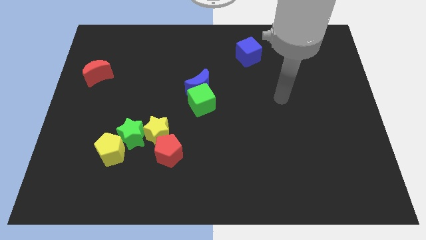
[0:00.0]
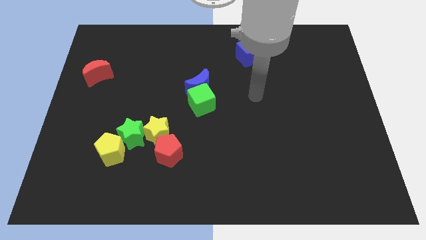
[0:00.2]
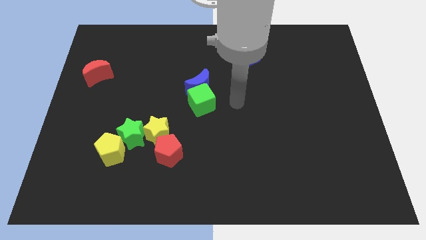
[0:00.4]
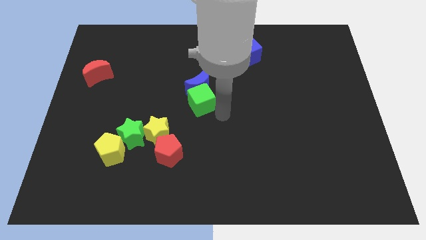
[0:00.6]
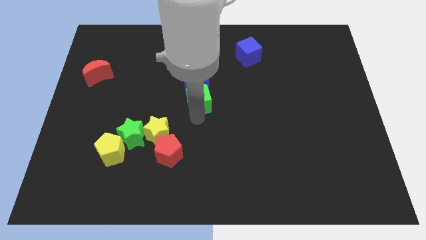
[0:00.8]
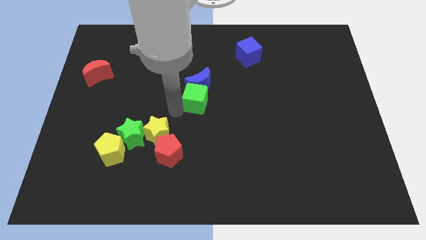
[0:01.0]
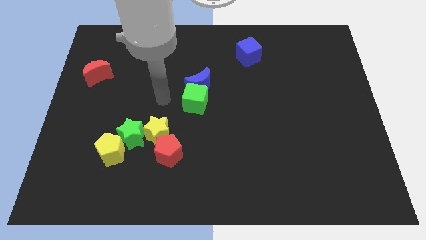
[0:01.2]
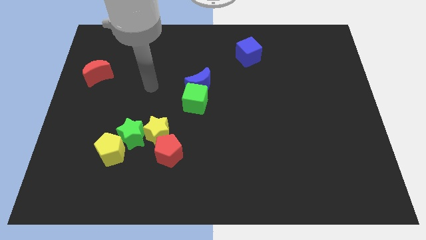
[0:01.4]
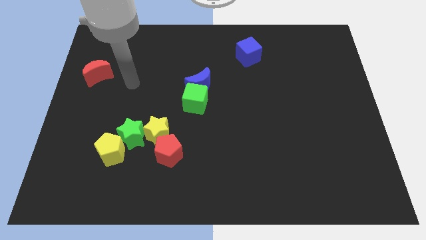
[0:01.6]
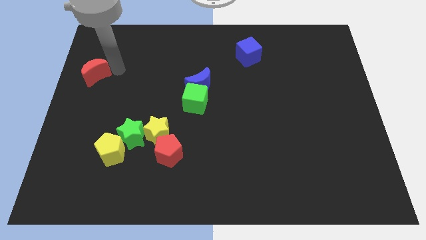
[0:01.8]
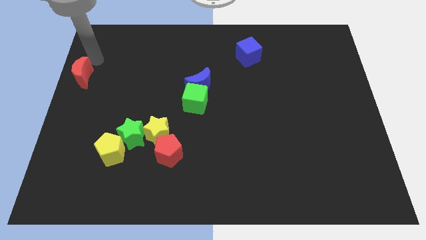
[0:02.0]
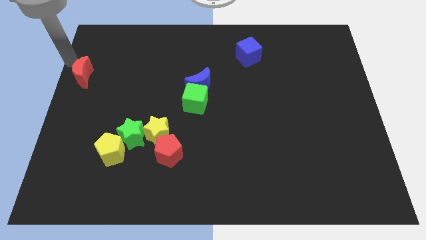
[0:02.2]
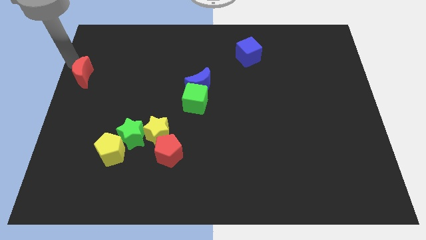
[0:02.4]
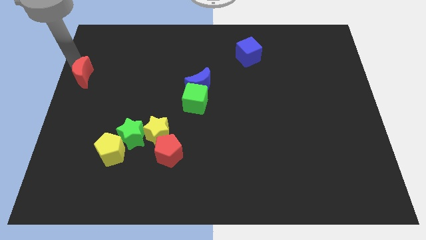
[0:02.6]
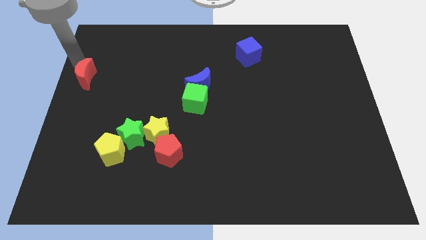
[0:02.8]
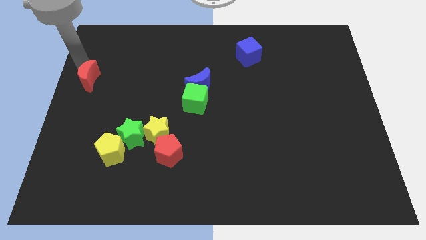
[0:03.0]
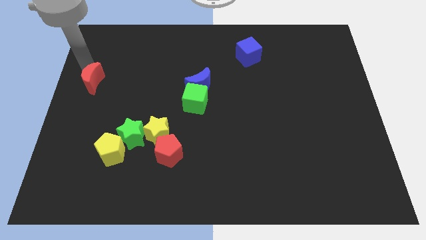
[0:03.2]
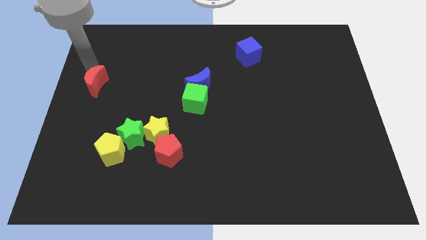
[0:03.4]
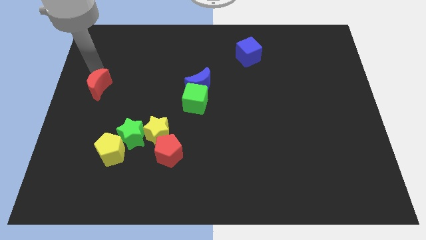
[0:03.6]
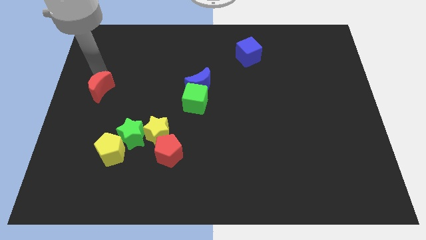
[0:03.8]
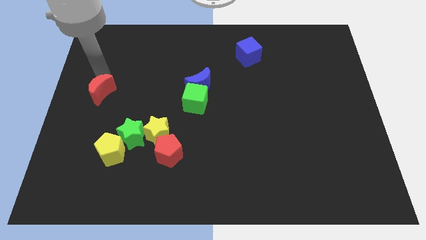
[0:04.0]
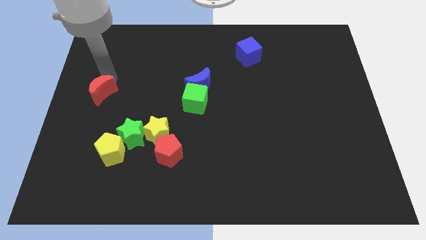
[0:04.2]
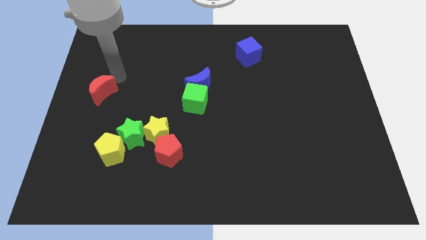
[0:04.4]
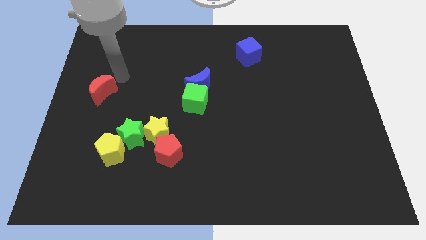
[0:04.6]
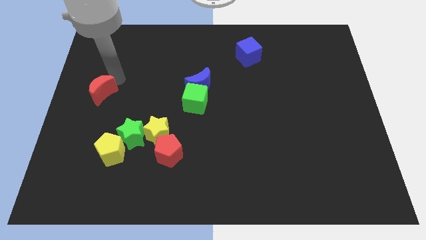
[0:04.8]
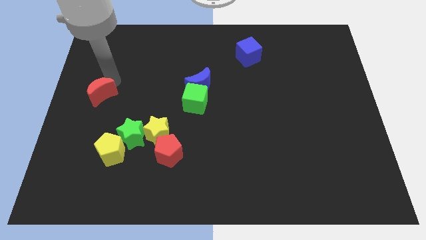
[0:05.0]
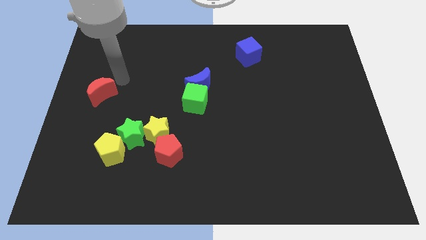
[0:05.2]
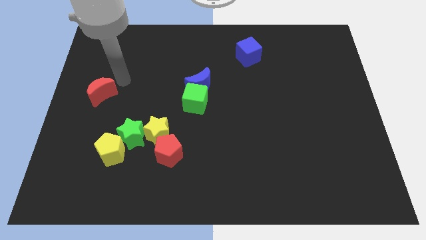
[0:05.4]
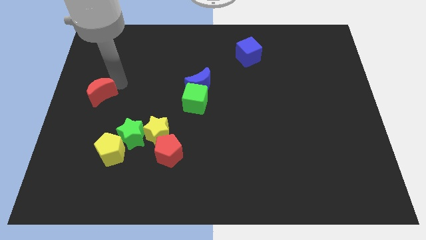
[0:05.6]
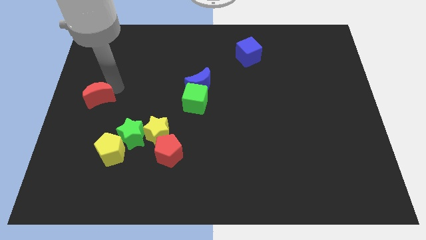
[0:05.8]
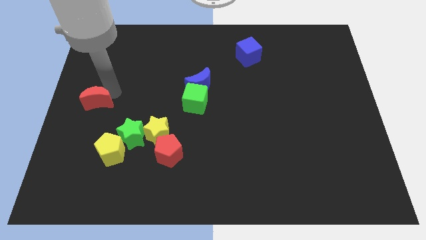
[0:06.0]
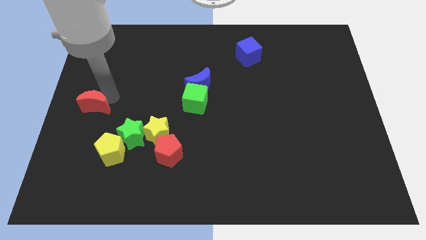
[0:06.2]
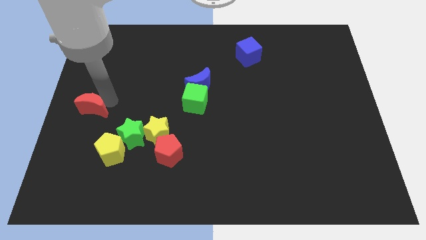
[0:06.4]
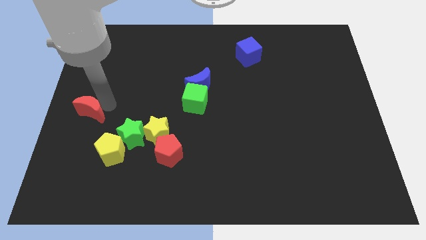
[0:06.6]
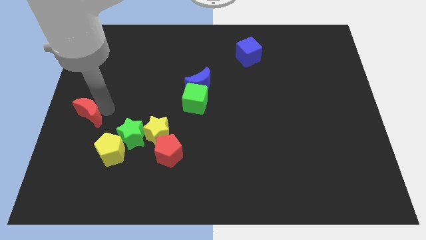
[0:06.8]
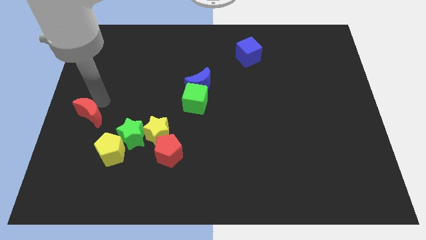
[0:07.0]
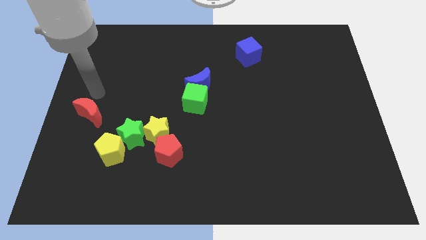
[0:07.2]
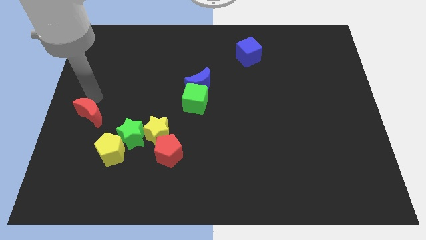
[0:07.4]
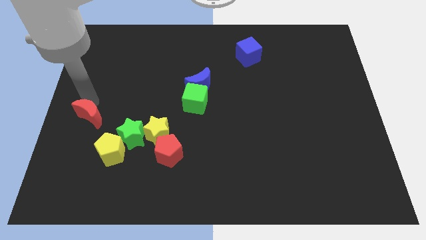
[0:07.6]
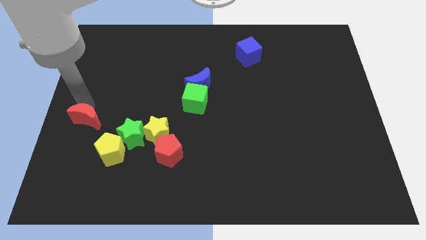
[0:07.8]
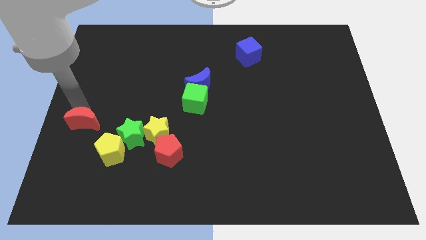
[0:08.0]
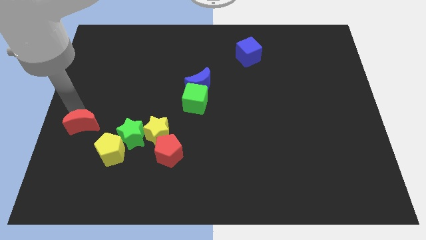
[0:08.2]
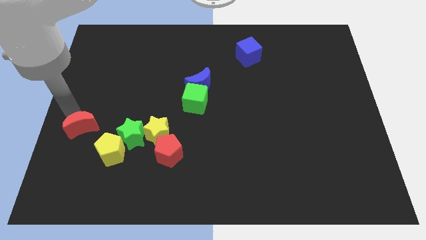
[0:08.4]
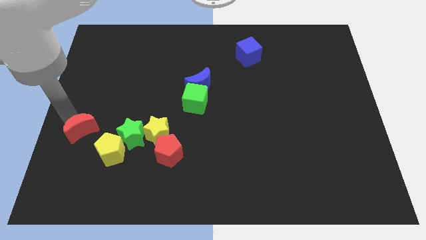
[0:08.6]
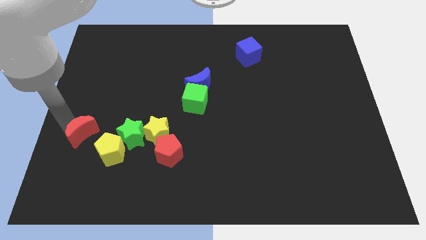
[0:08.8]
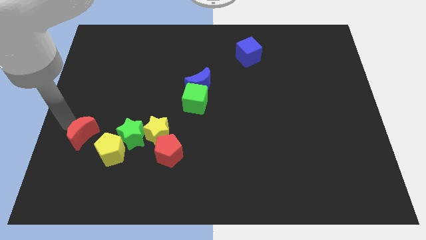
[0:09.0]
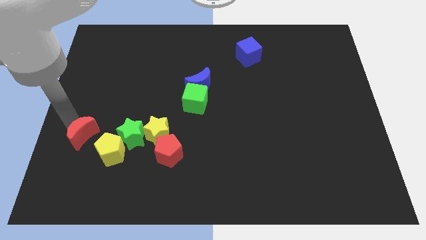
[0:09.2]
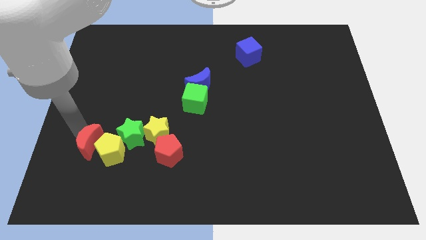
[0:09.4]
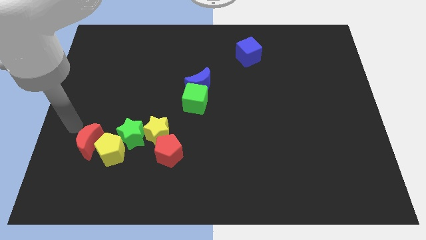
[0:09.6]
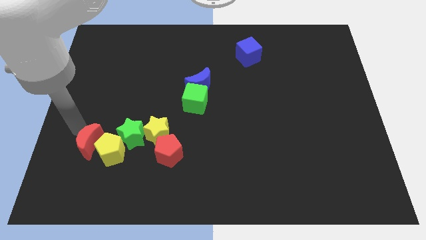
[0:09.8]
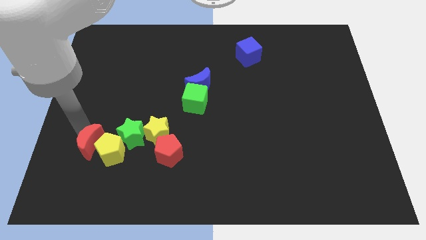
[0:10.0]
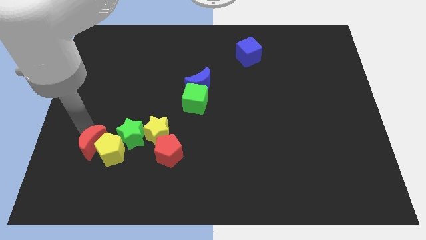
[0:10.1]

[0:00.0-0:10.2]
put the red moon to the bottom left of the green star

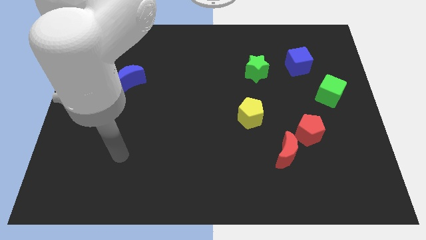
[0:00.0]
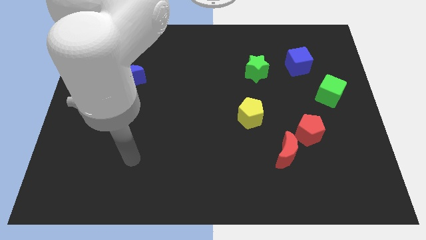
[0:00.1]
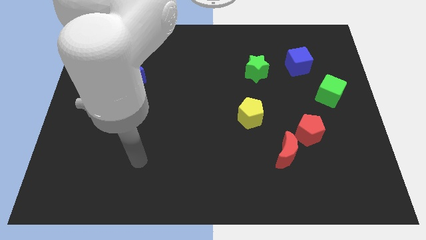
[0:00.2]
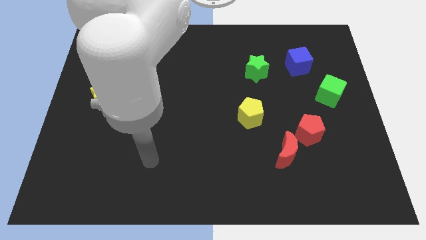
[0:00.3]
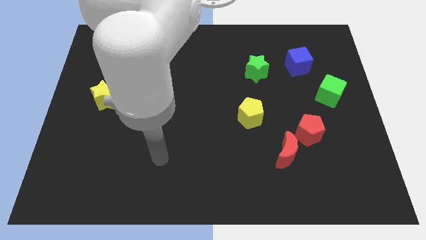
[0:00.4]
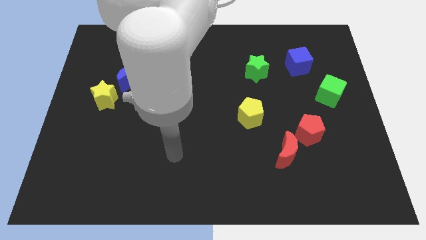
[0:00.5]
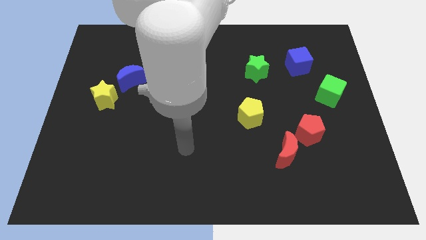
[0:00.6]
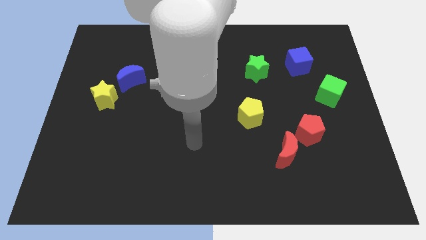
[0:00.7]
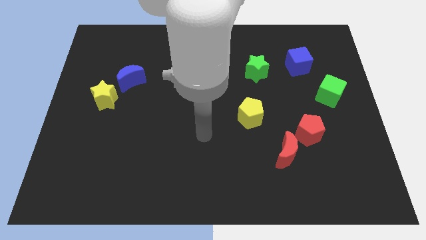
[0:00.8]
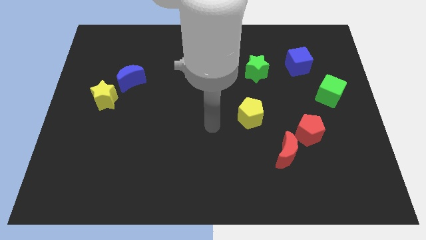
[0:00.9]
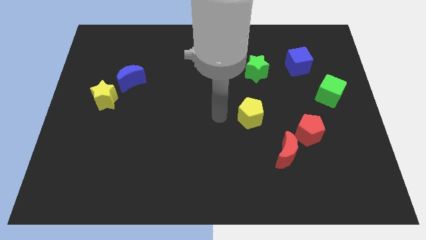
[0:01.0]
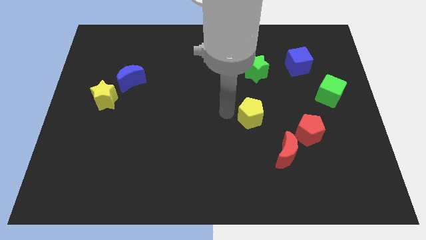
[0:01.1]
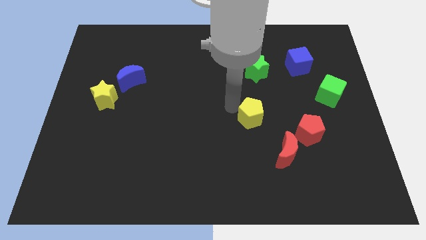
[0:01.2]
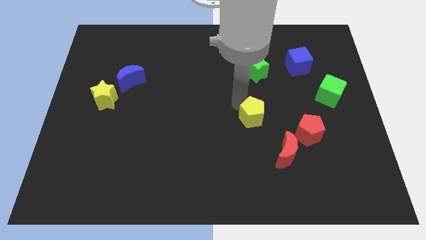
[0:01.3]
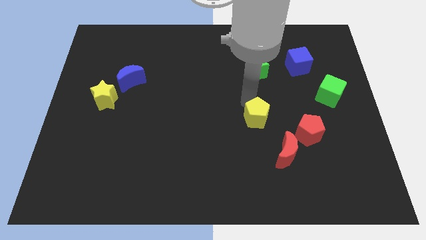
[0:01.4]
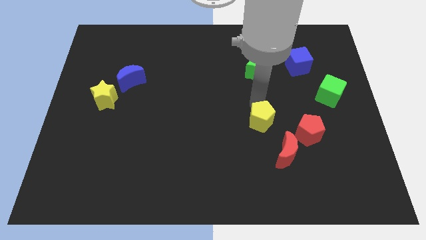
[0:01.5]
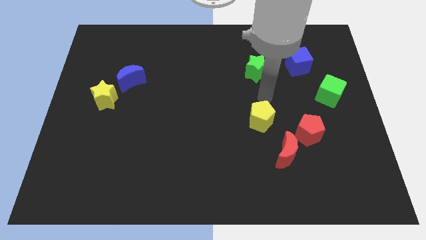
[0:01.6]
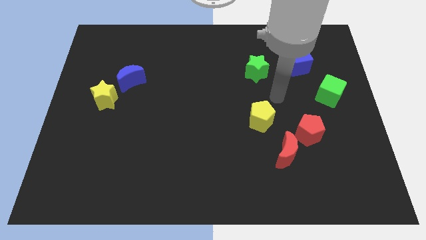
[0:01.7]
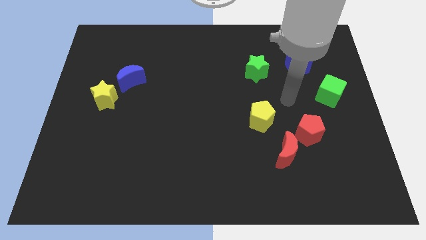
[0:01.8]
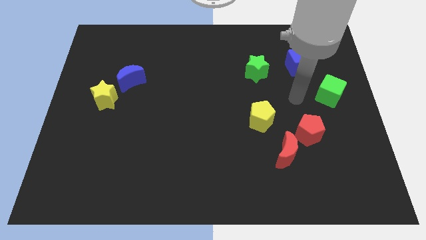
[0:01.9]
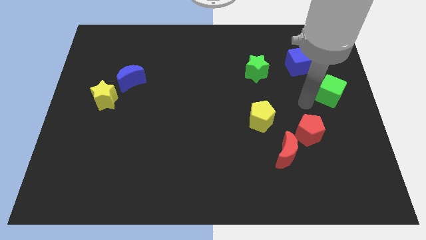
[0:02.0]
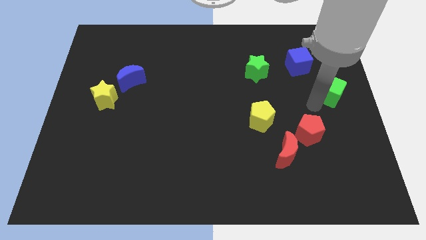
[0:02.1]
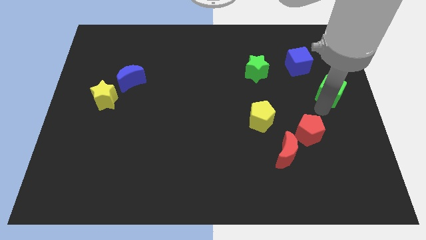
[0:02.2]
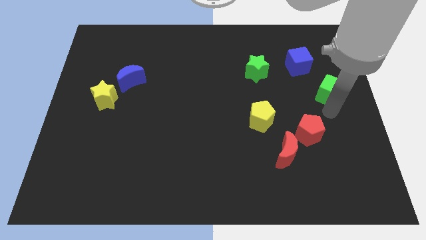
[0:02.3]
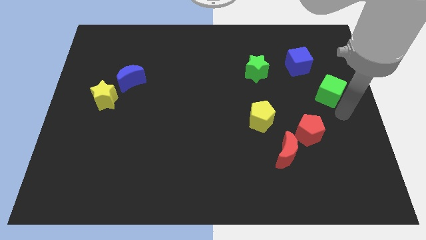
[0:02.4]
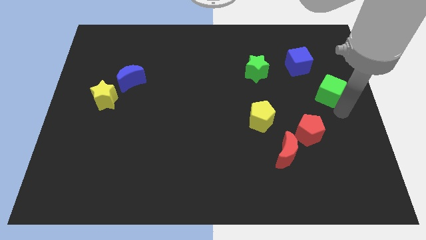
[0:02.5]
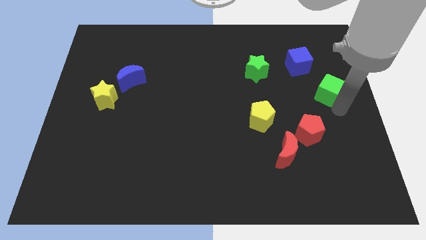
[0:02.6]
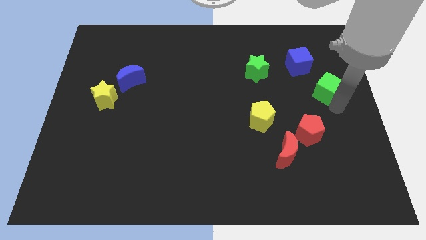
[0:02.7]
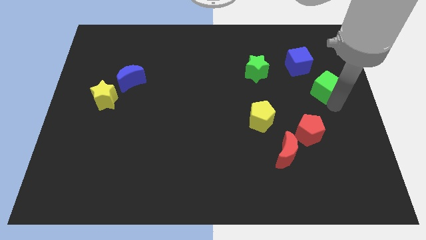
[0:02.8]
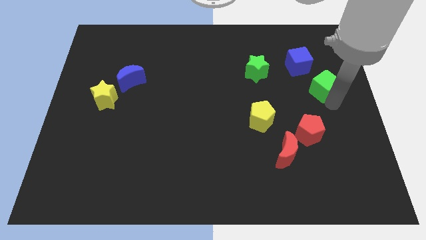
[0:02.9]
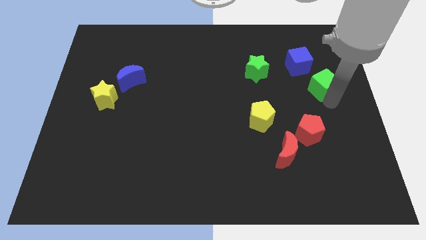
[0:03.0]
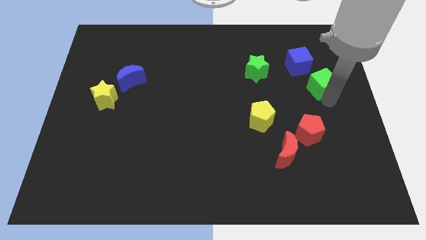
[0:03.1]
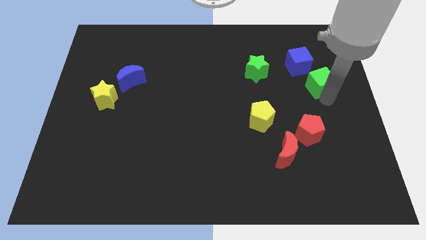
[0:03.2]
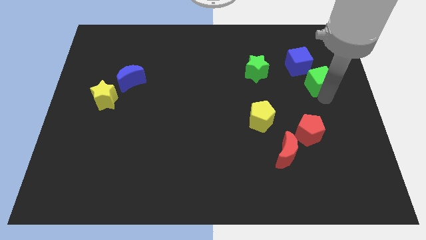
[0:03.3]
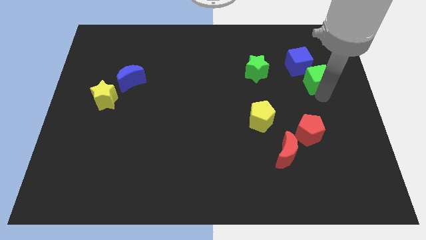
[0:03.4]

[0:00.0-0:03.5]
put the green cube to the right of the green star
